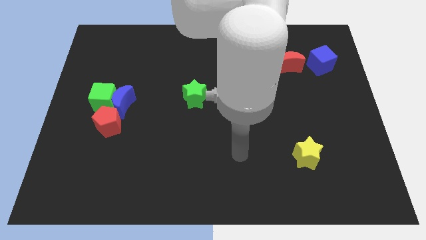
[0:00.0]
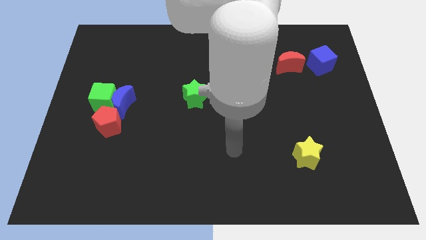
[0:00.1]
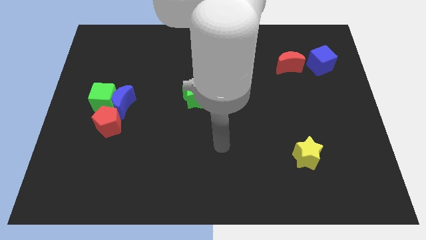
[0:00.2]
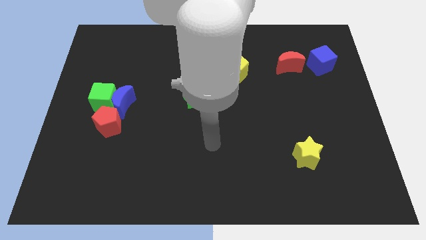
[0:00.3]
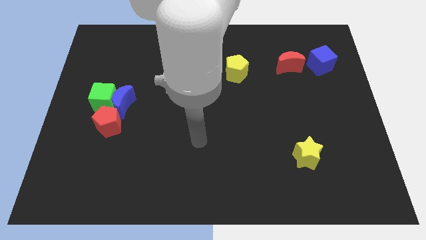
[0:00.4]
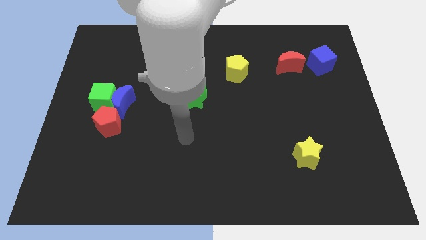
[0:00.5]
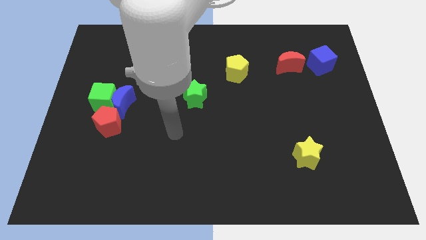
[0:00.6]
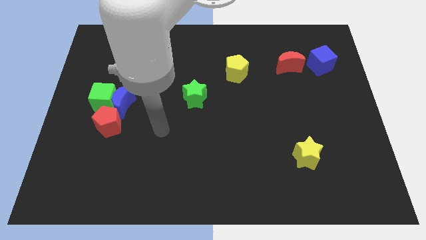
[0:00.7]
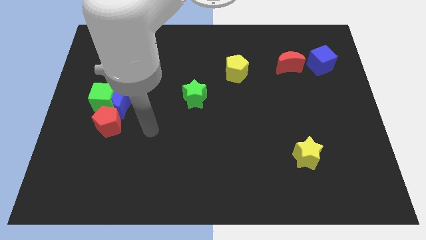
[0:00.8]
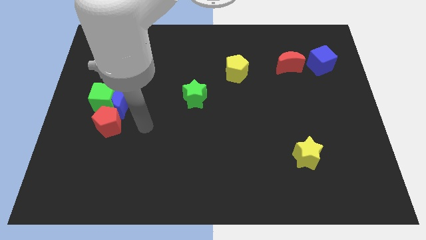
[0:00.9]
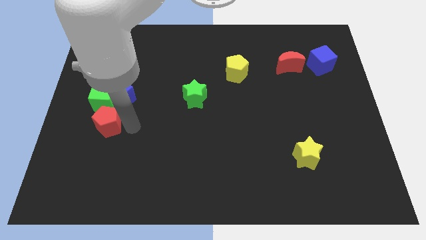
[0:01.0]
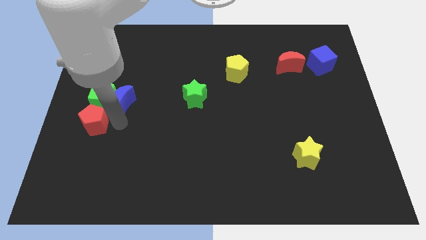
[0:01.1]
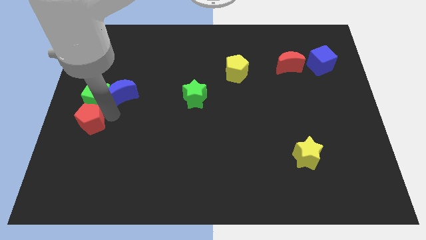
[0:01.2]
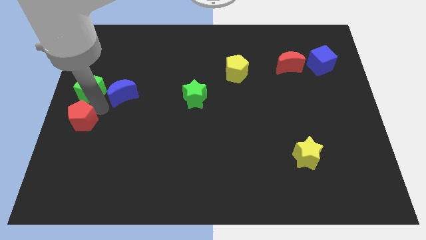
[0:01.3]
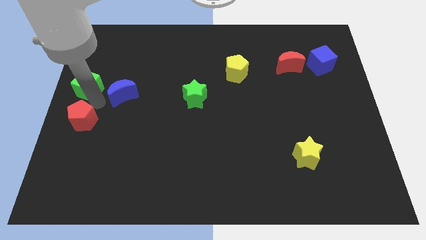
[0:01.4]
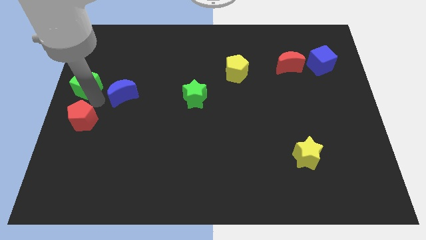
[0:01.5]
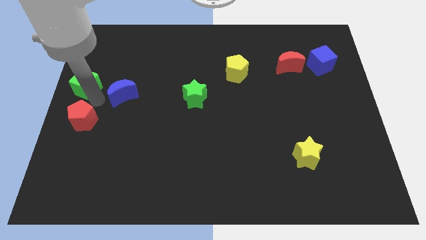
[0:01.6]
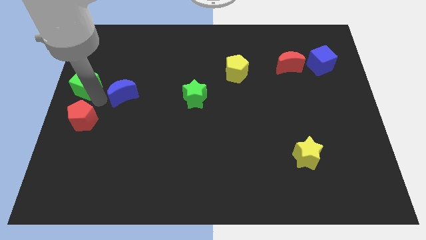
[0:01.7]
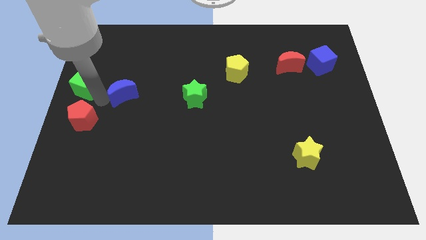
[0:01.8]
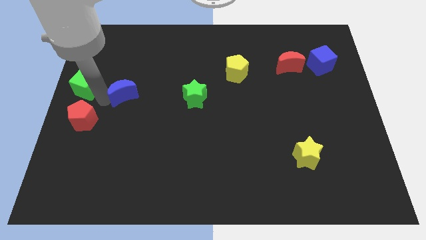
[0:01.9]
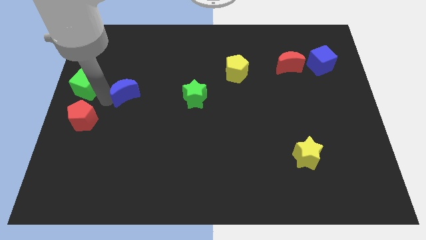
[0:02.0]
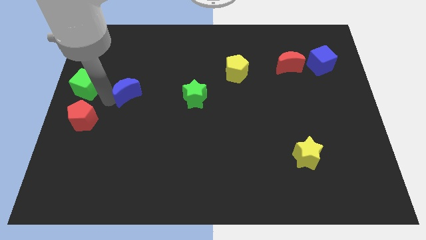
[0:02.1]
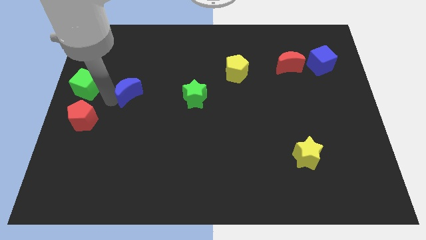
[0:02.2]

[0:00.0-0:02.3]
separate the blue moon from the green cube and red pentagon

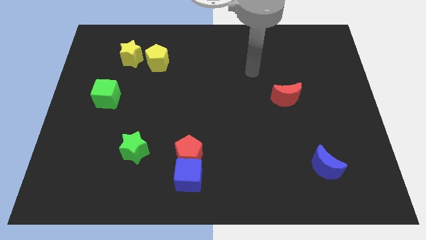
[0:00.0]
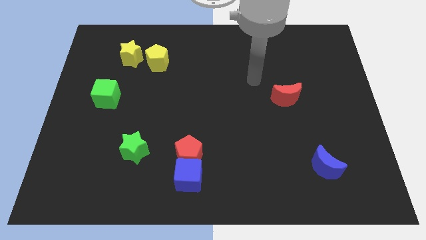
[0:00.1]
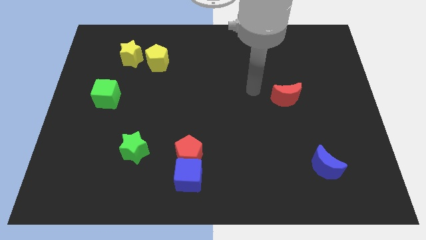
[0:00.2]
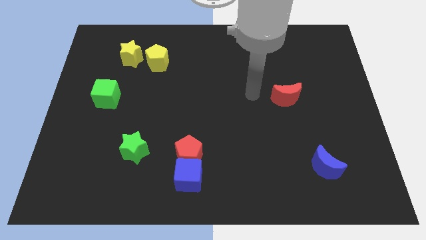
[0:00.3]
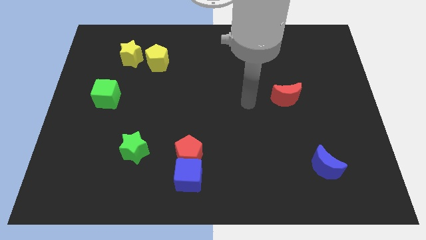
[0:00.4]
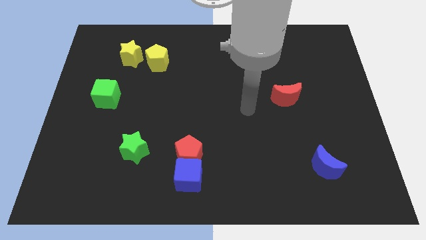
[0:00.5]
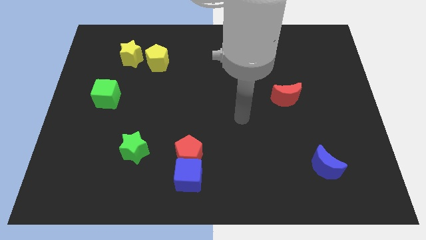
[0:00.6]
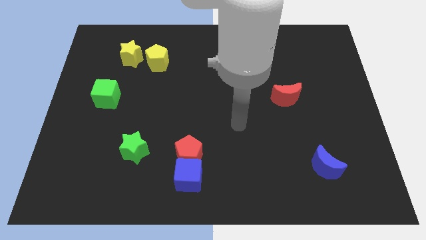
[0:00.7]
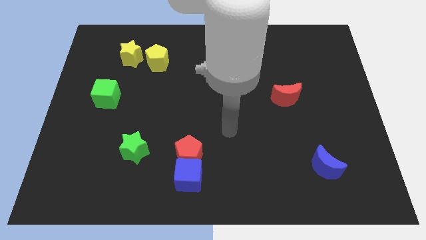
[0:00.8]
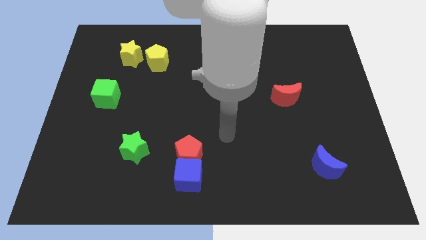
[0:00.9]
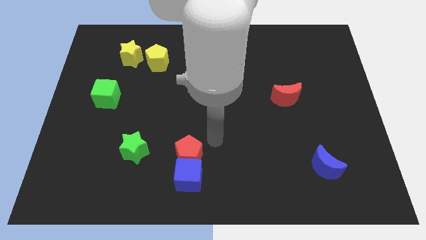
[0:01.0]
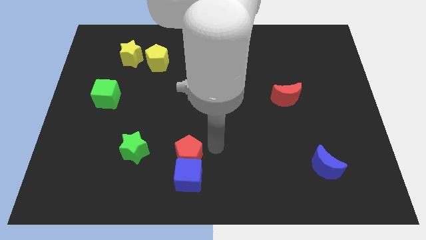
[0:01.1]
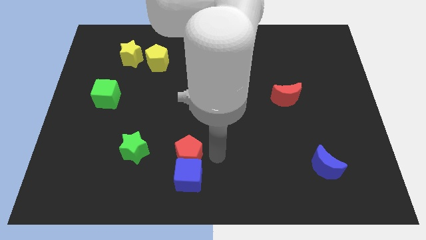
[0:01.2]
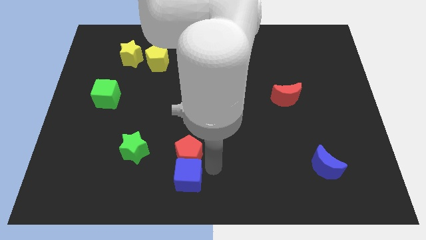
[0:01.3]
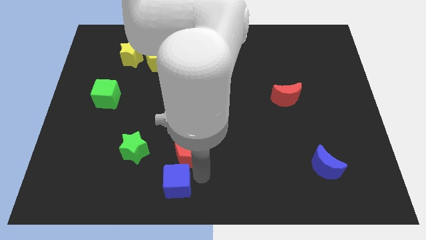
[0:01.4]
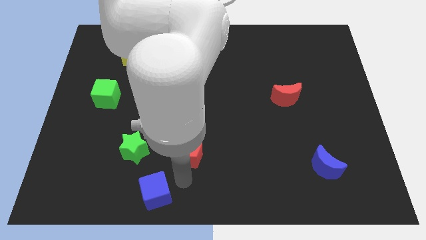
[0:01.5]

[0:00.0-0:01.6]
pull the red pentagon apart from the blue cube

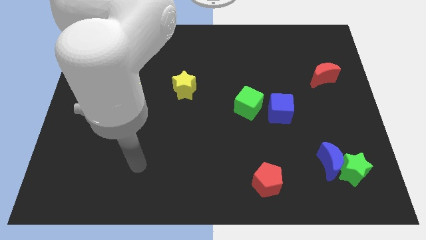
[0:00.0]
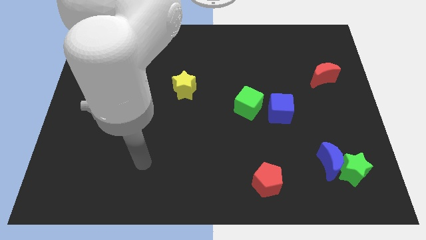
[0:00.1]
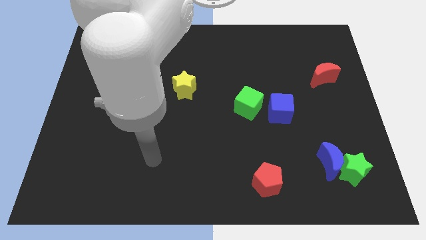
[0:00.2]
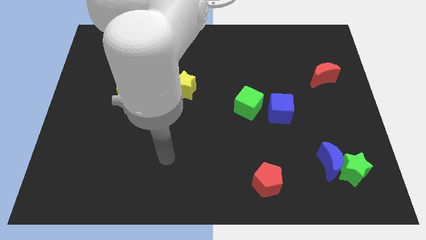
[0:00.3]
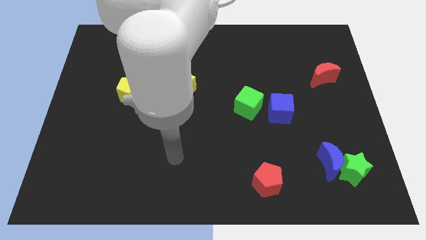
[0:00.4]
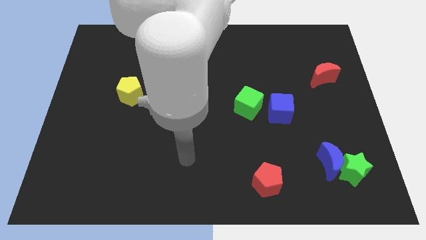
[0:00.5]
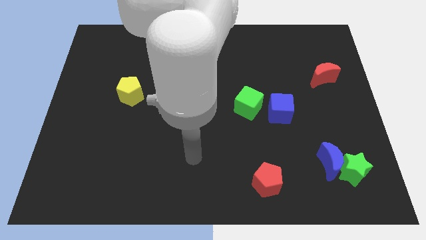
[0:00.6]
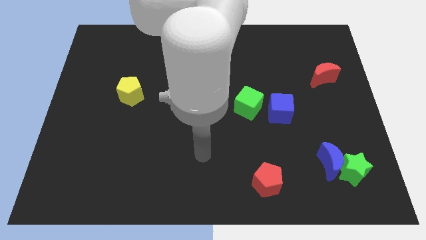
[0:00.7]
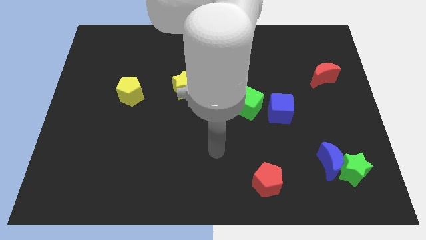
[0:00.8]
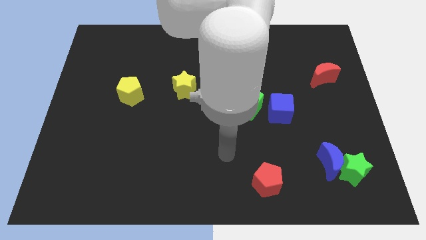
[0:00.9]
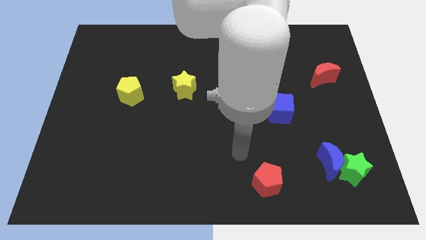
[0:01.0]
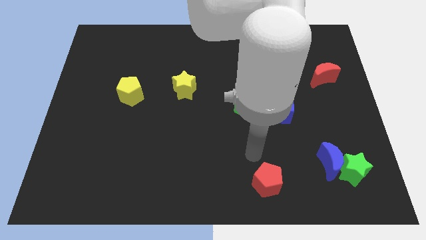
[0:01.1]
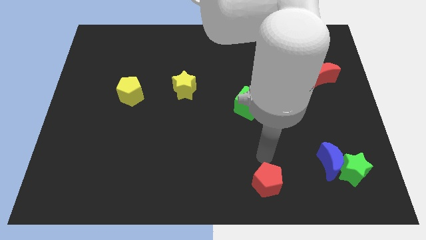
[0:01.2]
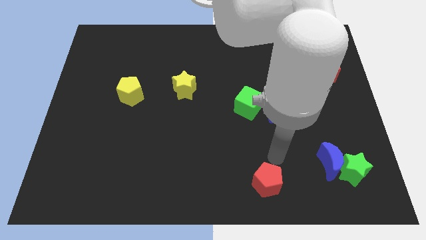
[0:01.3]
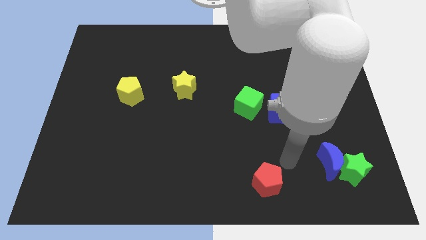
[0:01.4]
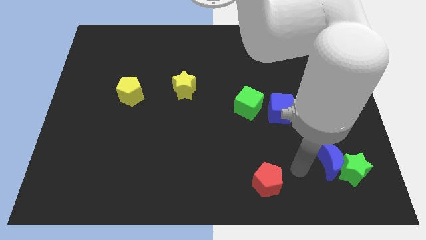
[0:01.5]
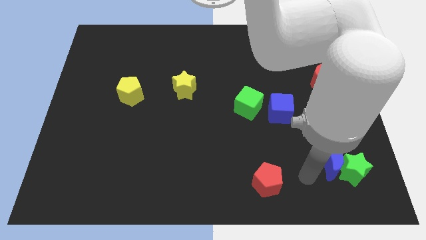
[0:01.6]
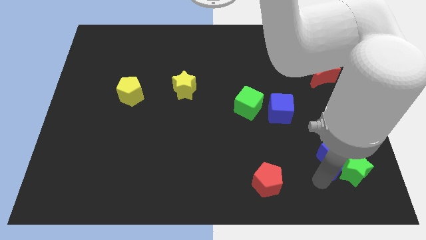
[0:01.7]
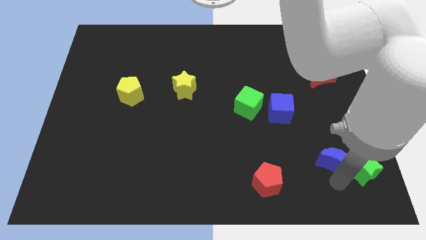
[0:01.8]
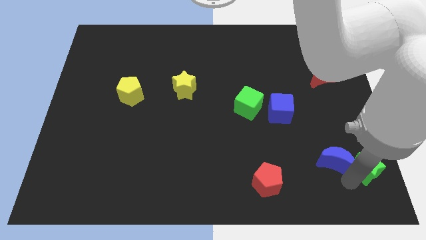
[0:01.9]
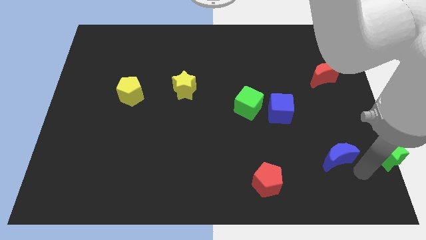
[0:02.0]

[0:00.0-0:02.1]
pull the blue moon apart from the green star

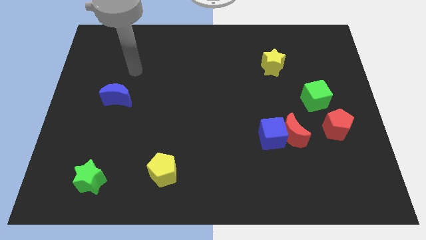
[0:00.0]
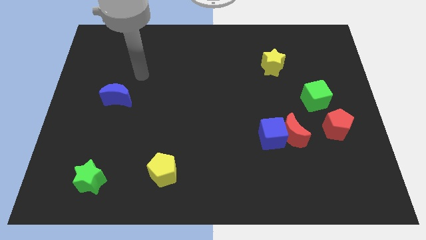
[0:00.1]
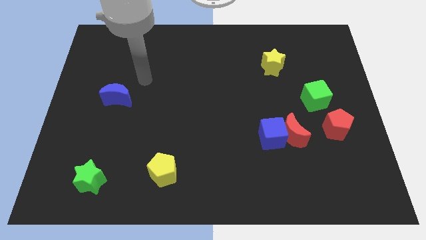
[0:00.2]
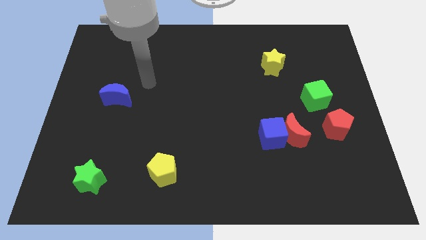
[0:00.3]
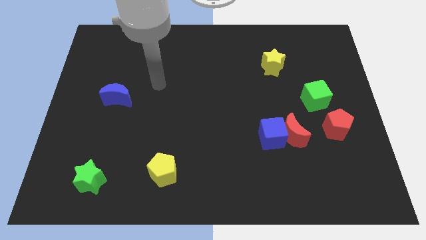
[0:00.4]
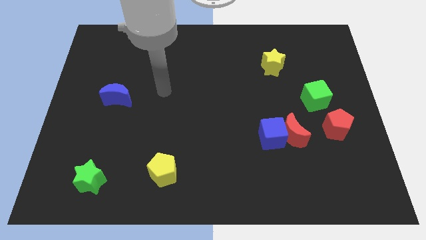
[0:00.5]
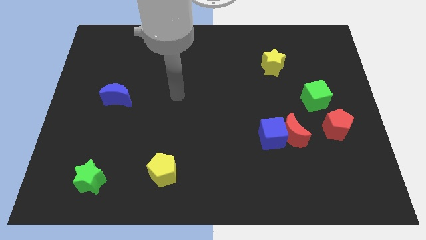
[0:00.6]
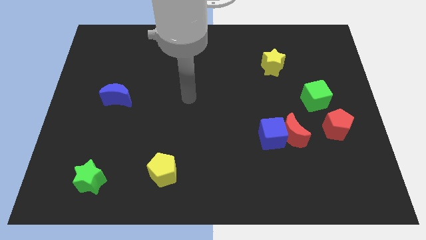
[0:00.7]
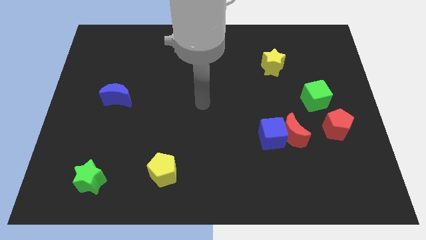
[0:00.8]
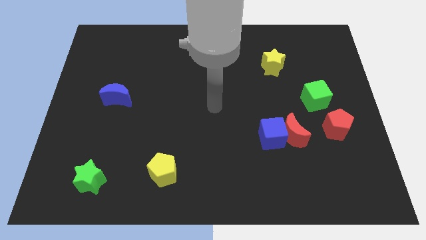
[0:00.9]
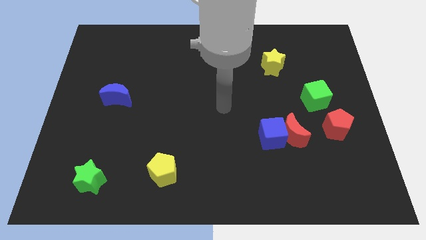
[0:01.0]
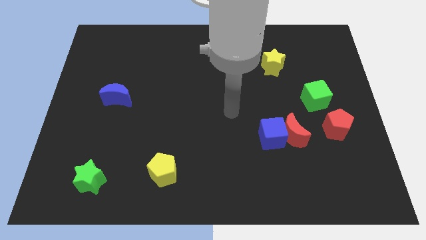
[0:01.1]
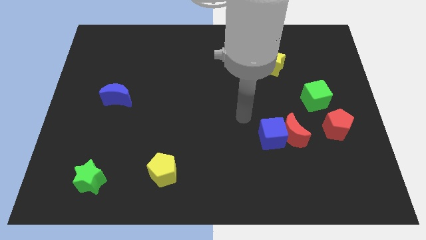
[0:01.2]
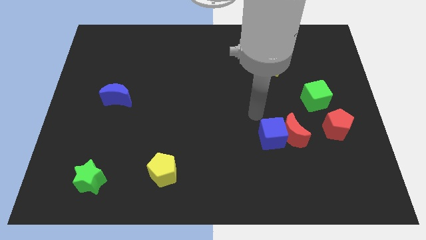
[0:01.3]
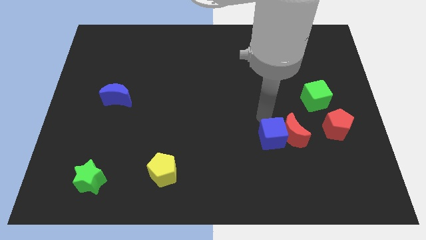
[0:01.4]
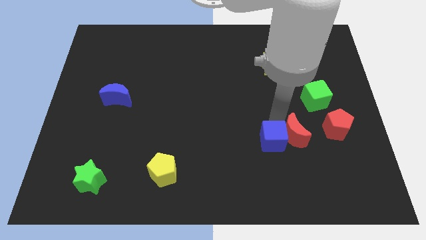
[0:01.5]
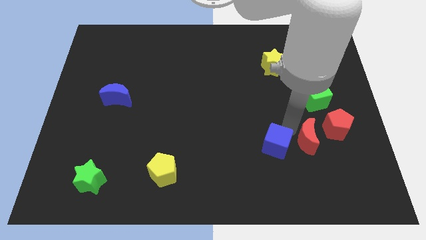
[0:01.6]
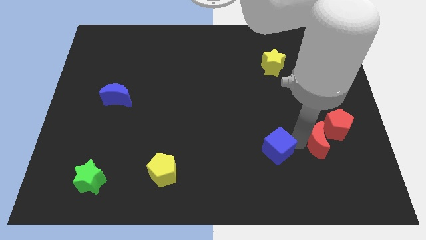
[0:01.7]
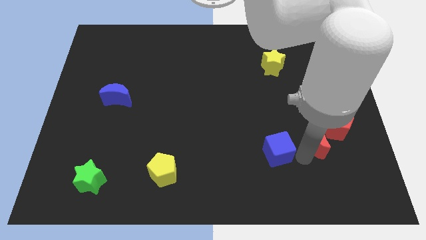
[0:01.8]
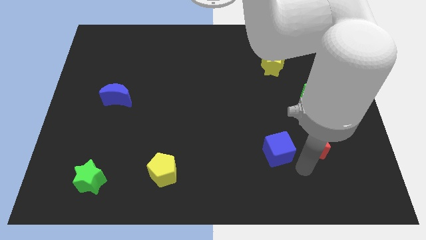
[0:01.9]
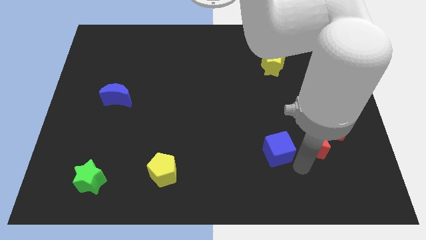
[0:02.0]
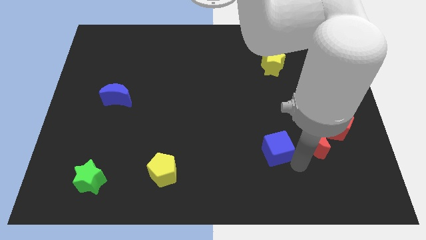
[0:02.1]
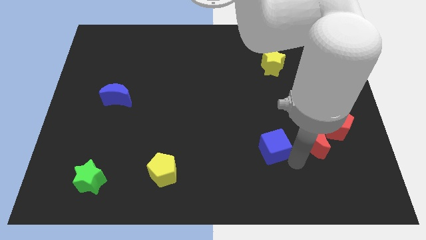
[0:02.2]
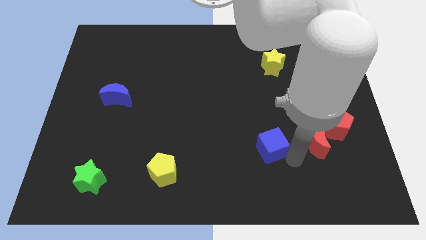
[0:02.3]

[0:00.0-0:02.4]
pull the blue cube apart from the red moon

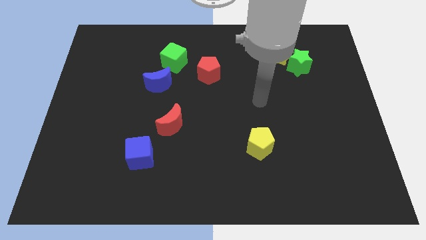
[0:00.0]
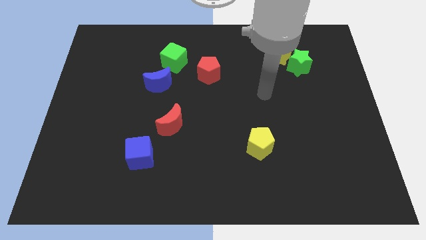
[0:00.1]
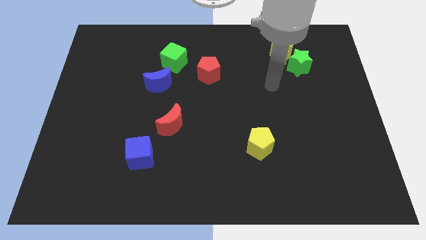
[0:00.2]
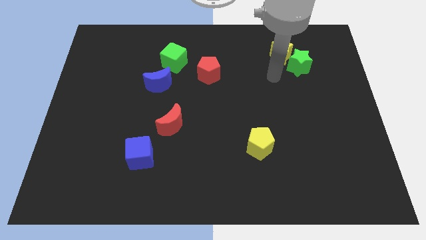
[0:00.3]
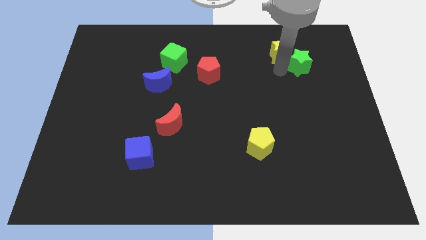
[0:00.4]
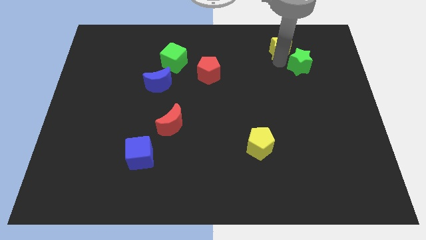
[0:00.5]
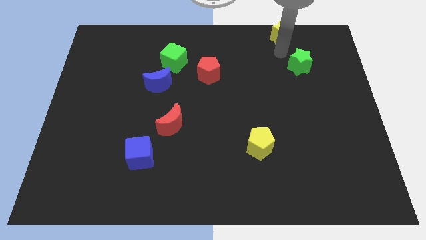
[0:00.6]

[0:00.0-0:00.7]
pull the green star apart from the yellow star

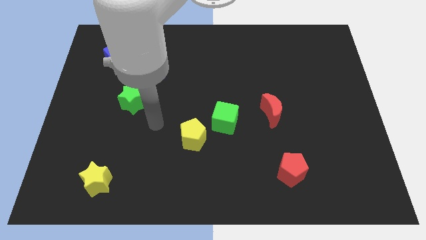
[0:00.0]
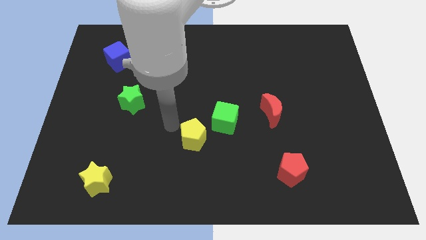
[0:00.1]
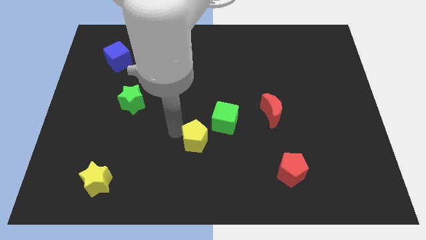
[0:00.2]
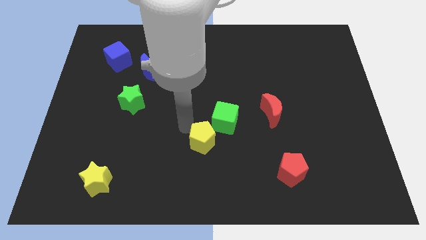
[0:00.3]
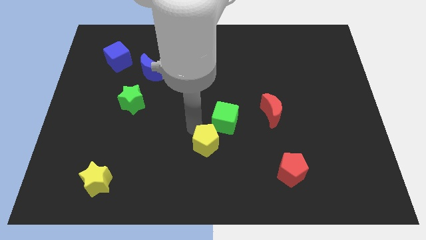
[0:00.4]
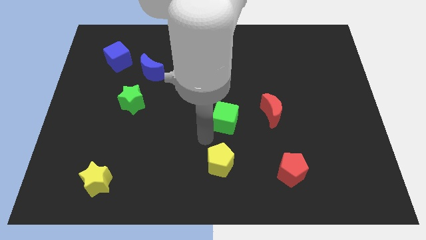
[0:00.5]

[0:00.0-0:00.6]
pull the green cube apart from the yellow pentagon
